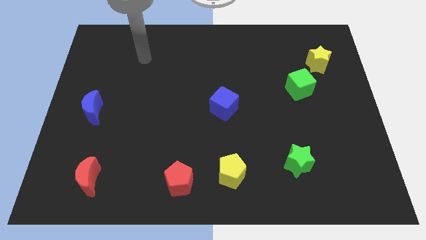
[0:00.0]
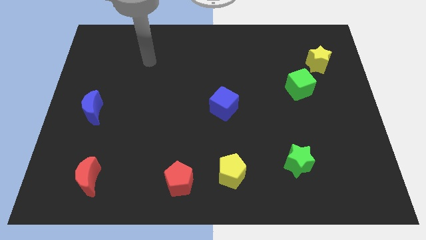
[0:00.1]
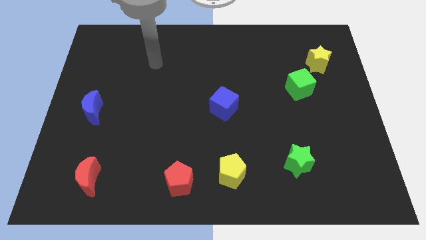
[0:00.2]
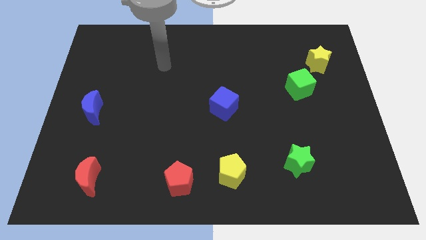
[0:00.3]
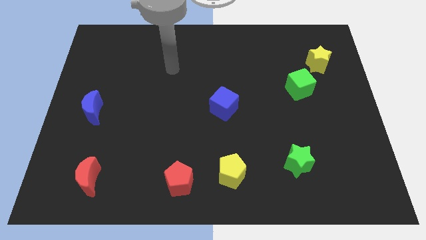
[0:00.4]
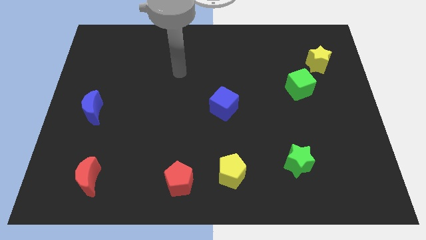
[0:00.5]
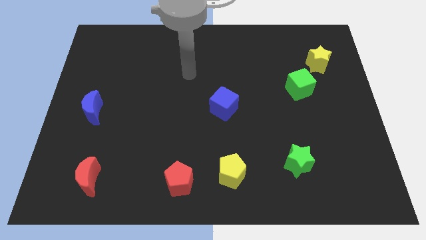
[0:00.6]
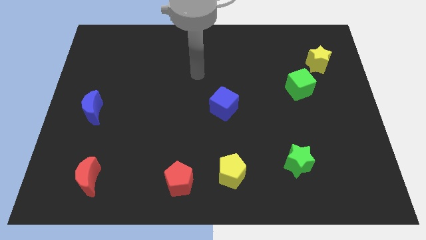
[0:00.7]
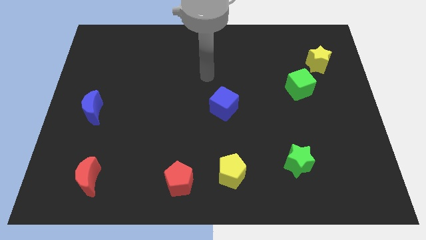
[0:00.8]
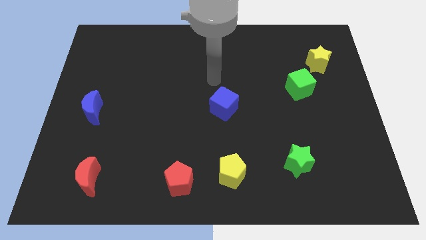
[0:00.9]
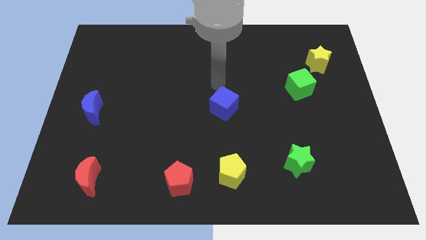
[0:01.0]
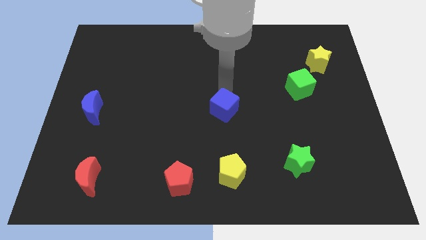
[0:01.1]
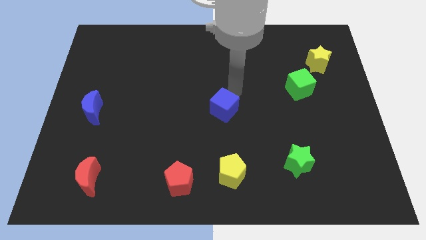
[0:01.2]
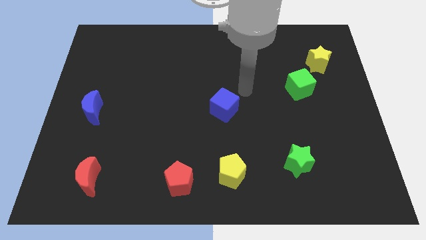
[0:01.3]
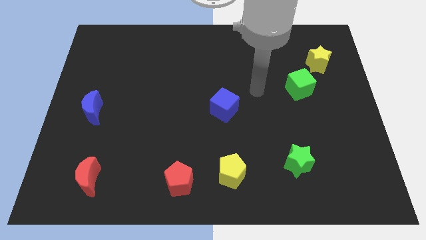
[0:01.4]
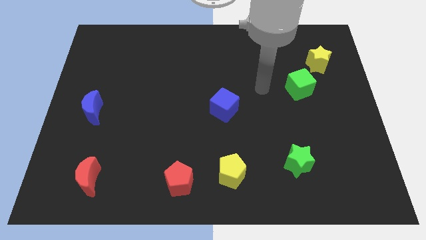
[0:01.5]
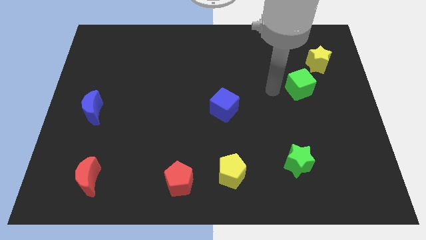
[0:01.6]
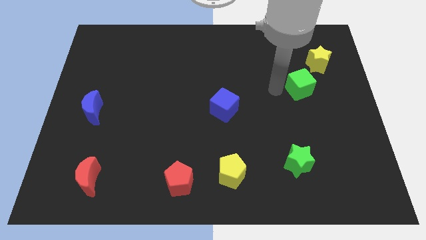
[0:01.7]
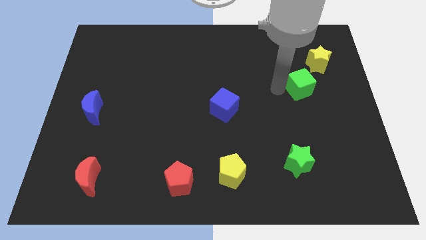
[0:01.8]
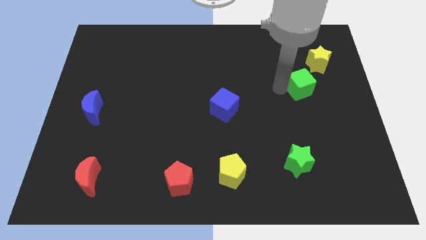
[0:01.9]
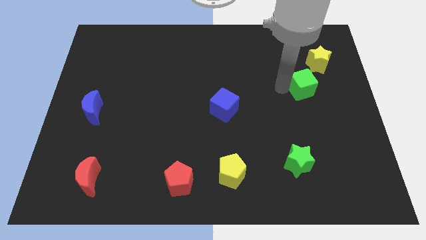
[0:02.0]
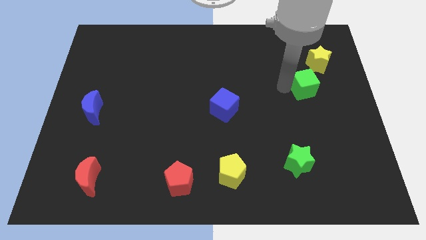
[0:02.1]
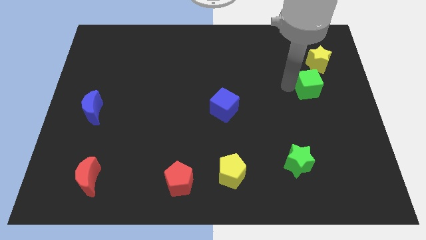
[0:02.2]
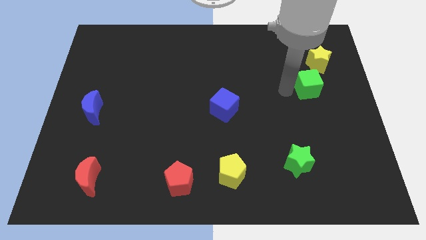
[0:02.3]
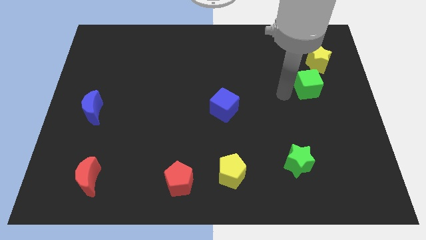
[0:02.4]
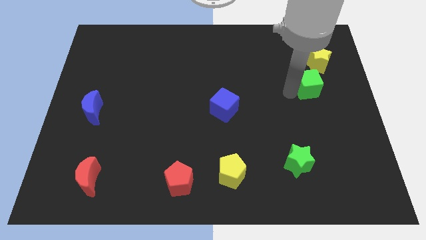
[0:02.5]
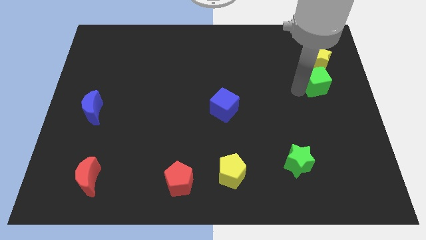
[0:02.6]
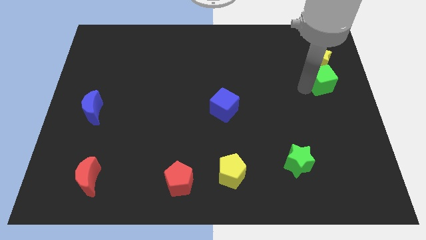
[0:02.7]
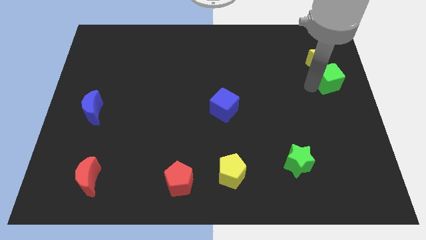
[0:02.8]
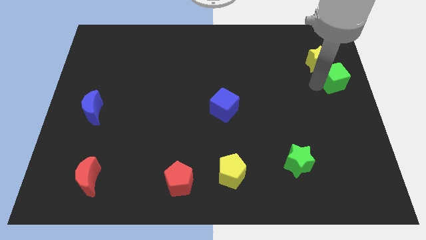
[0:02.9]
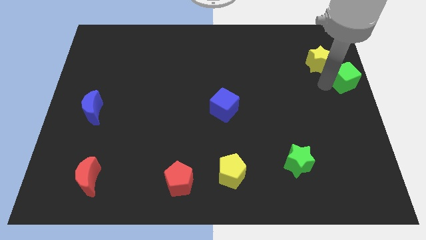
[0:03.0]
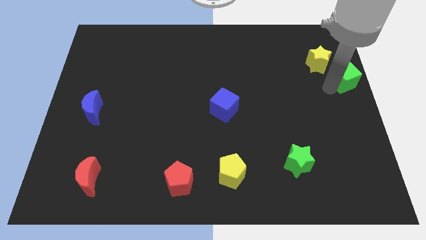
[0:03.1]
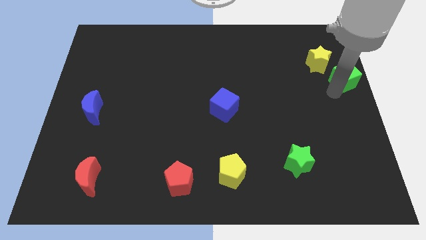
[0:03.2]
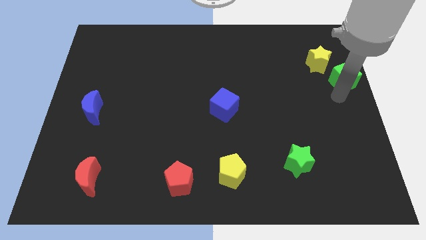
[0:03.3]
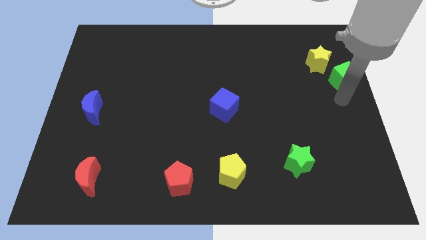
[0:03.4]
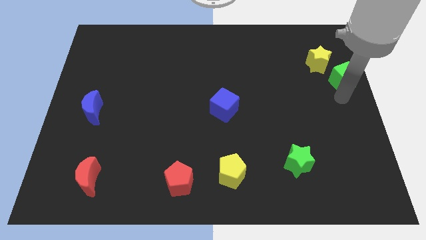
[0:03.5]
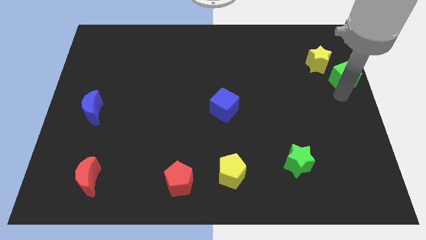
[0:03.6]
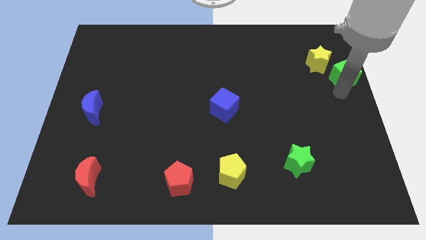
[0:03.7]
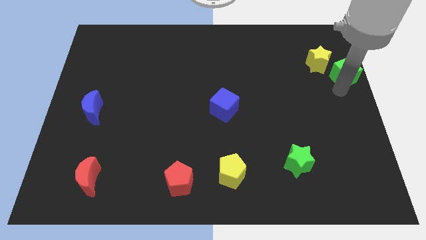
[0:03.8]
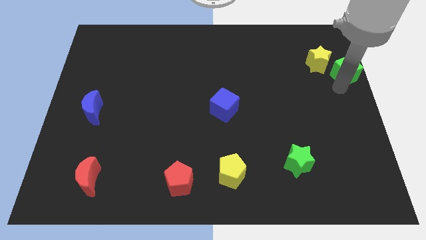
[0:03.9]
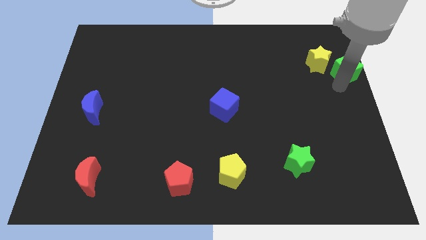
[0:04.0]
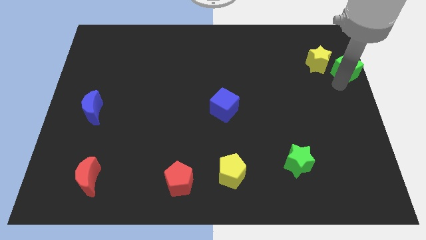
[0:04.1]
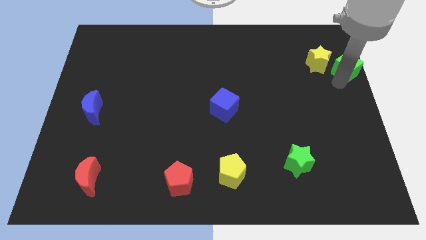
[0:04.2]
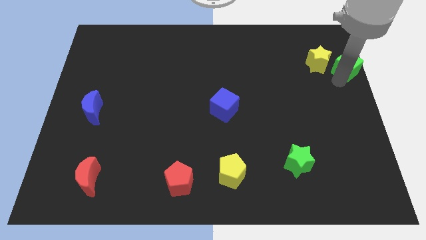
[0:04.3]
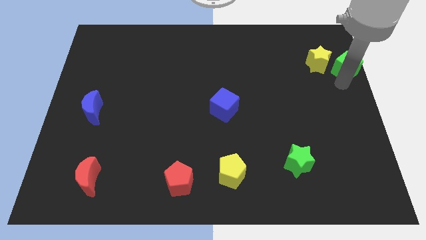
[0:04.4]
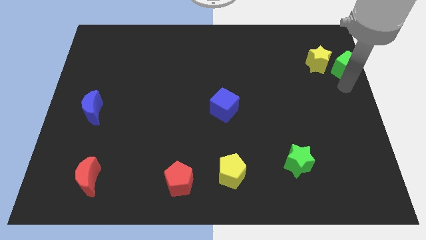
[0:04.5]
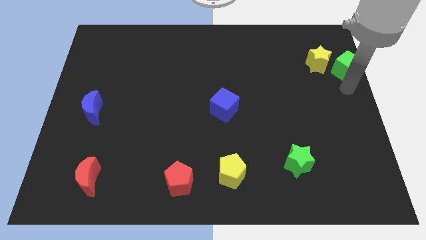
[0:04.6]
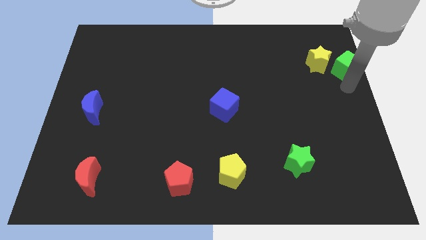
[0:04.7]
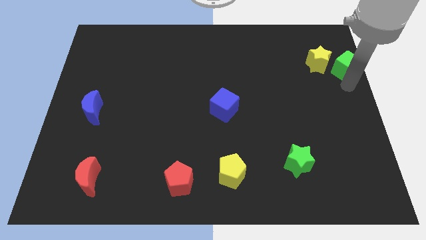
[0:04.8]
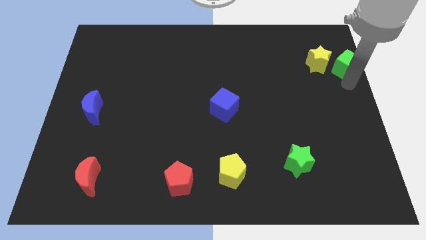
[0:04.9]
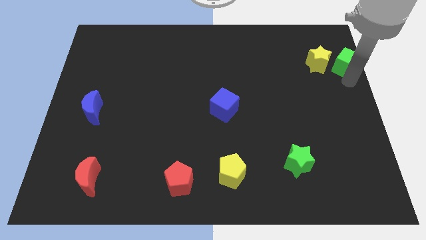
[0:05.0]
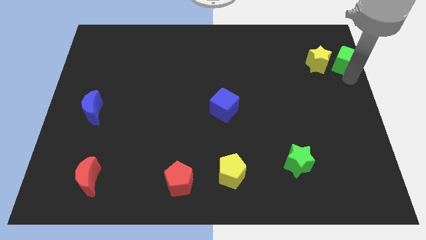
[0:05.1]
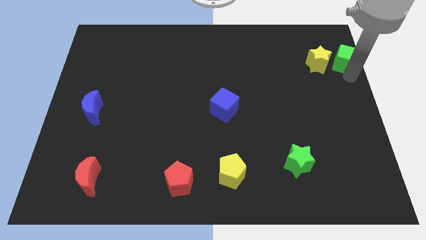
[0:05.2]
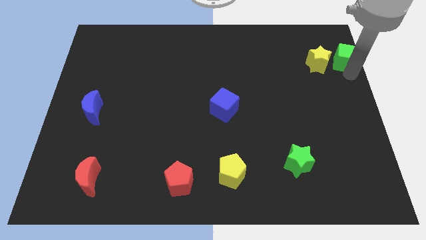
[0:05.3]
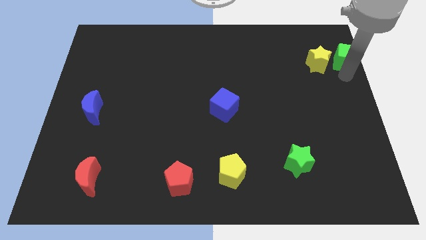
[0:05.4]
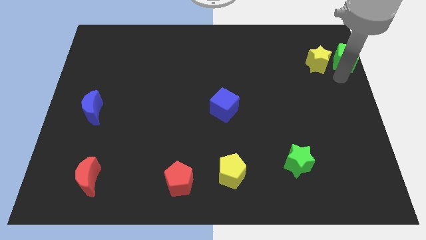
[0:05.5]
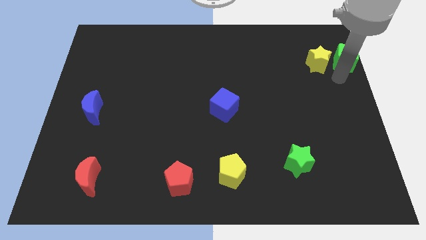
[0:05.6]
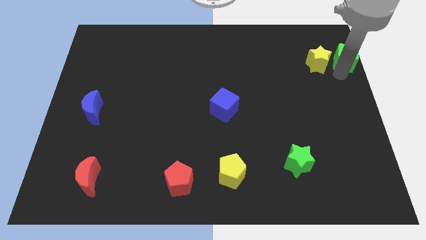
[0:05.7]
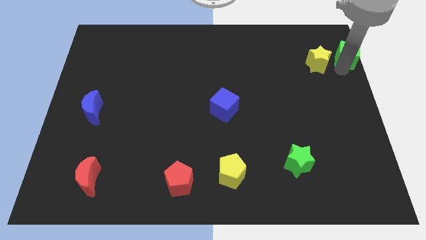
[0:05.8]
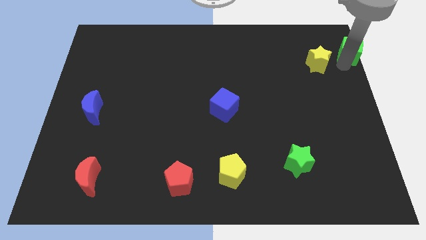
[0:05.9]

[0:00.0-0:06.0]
push the green cube to the top right of the board
